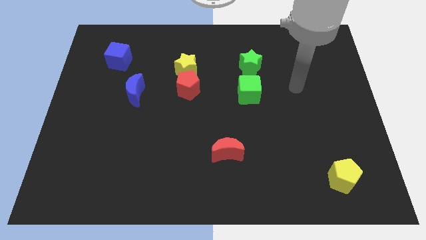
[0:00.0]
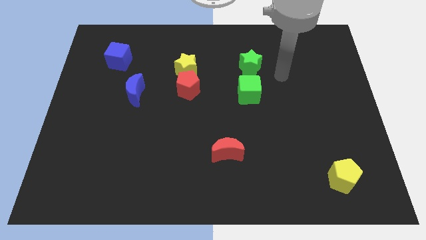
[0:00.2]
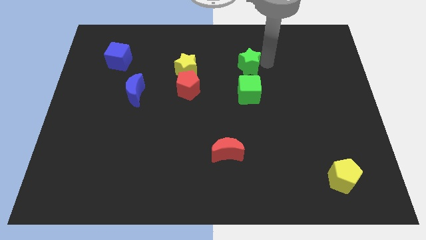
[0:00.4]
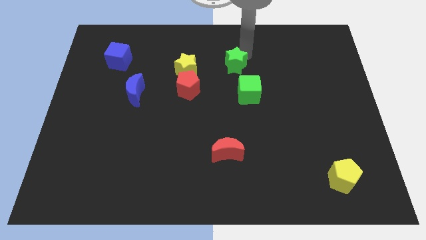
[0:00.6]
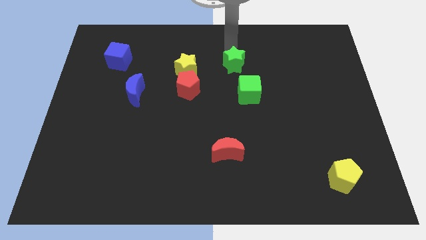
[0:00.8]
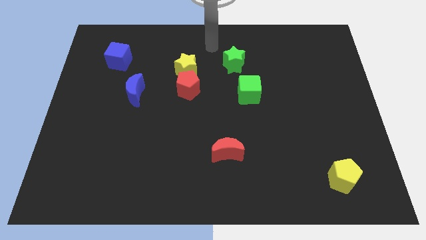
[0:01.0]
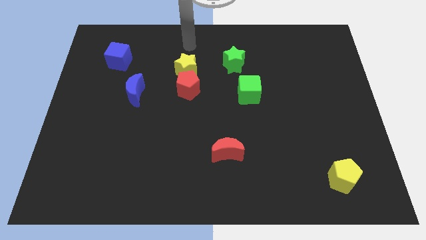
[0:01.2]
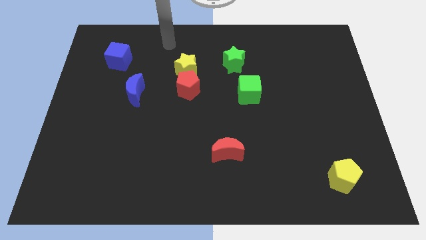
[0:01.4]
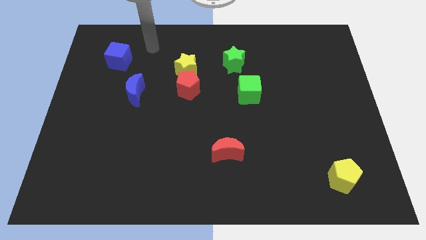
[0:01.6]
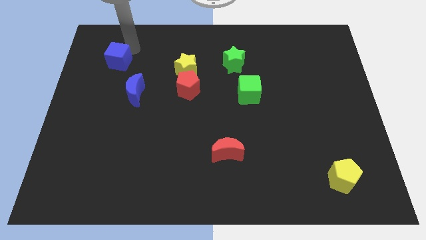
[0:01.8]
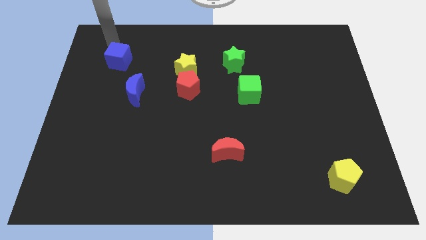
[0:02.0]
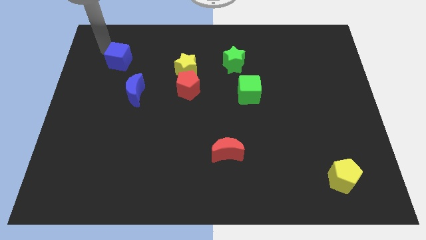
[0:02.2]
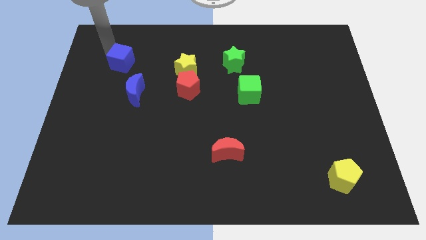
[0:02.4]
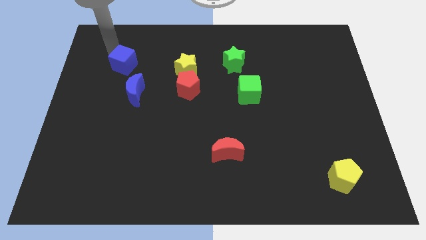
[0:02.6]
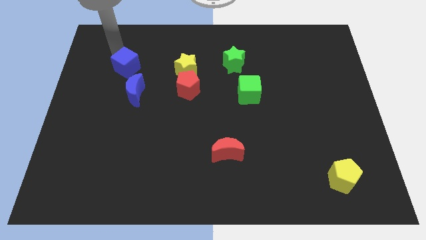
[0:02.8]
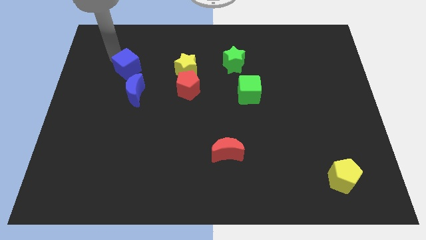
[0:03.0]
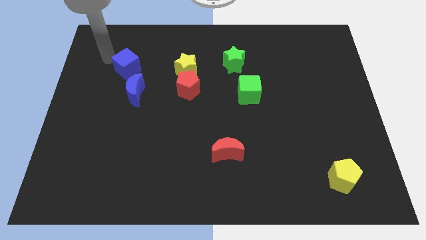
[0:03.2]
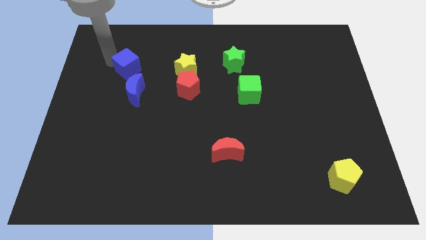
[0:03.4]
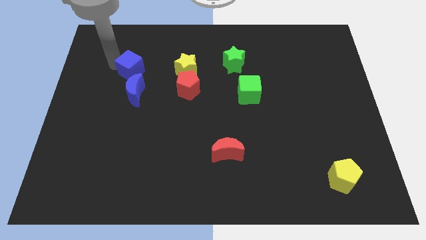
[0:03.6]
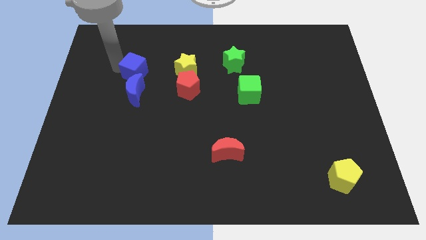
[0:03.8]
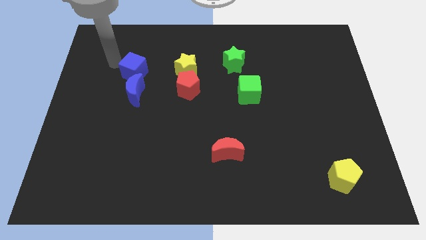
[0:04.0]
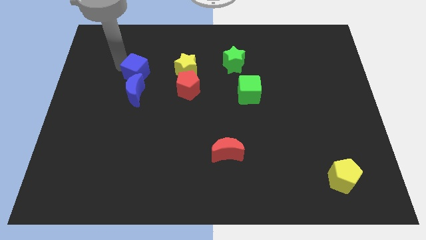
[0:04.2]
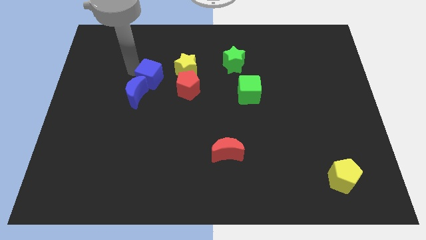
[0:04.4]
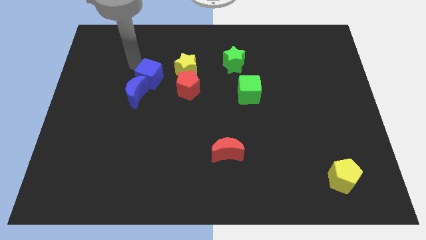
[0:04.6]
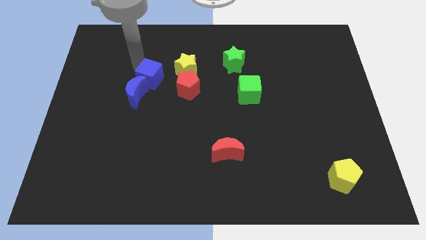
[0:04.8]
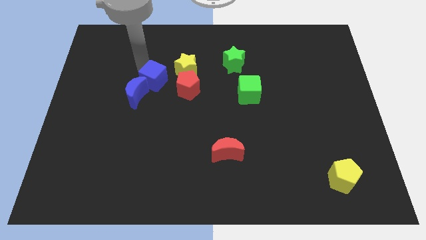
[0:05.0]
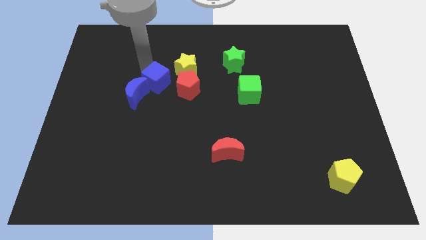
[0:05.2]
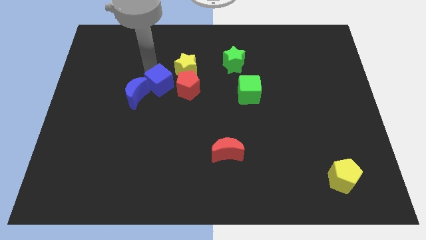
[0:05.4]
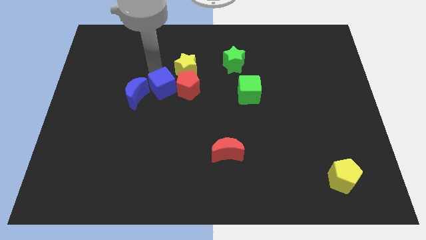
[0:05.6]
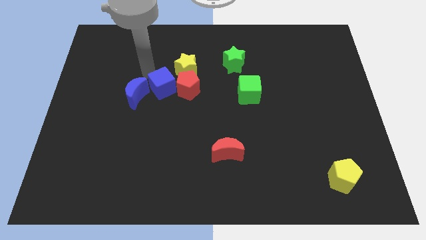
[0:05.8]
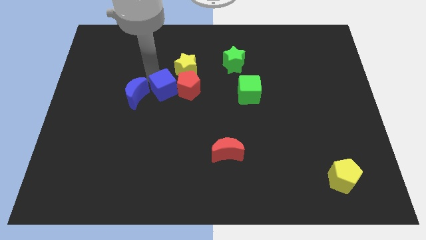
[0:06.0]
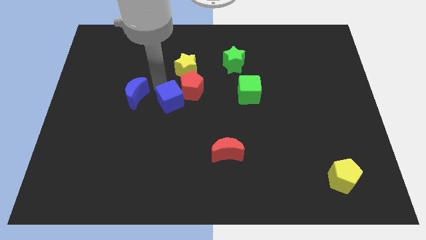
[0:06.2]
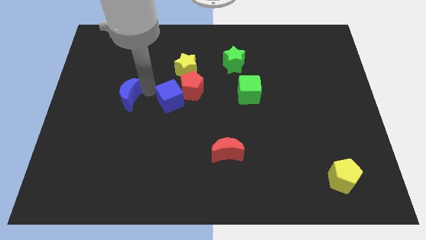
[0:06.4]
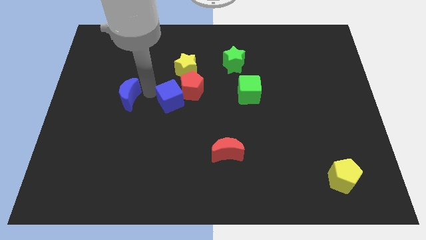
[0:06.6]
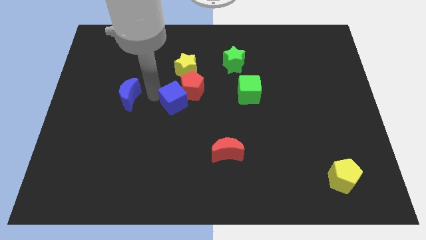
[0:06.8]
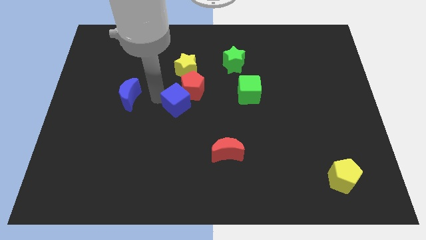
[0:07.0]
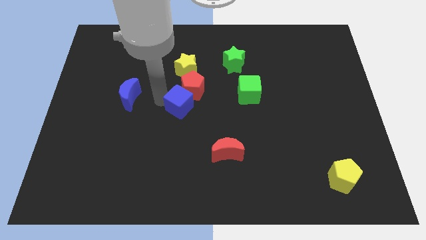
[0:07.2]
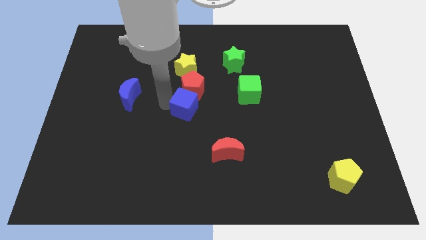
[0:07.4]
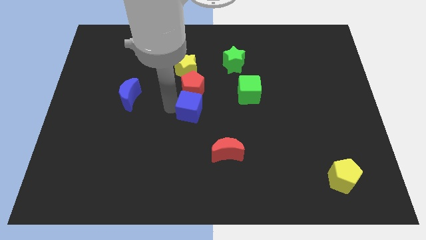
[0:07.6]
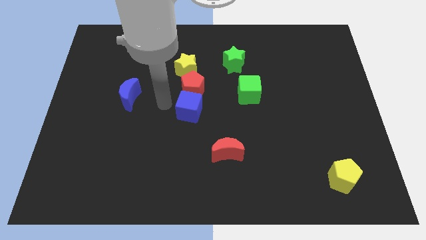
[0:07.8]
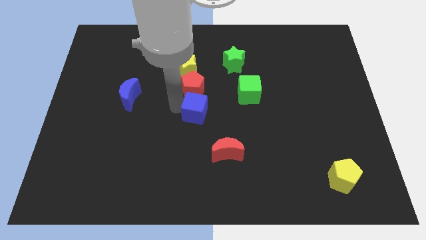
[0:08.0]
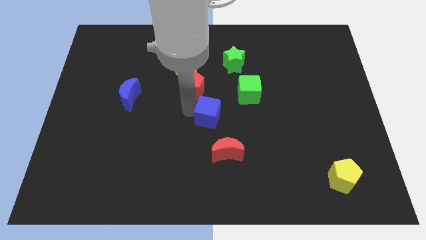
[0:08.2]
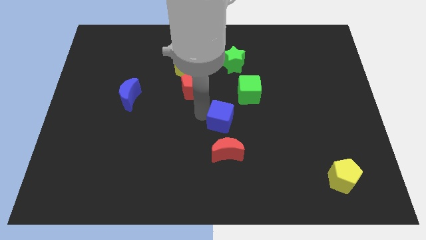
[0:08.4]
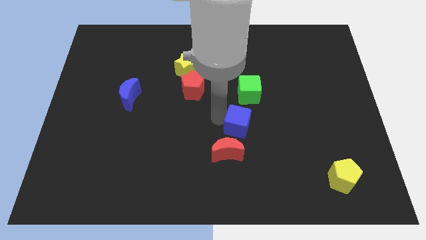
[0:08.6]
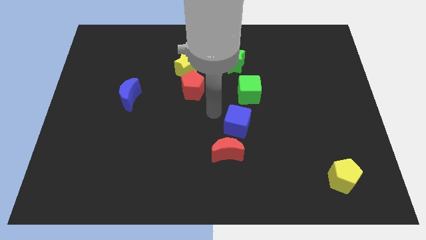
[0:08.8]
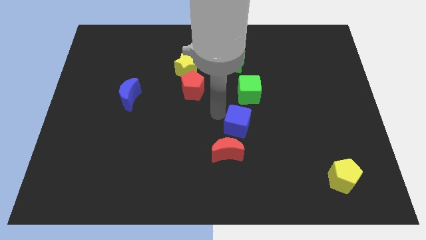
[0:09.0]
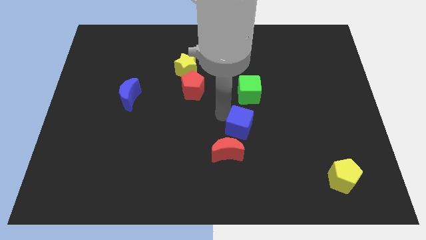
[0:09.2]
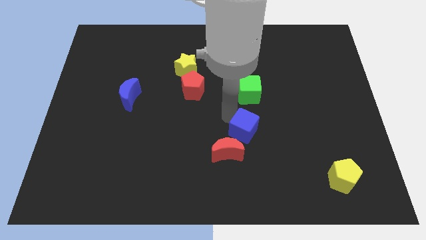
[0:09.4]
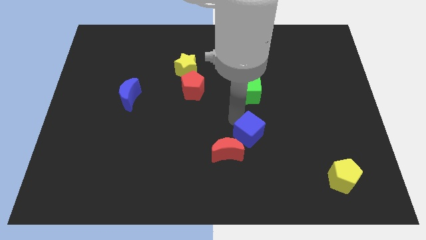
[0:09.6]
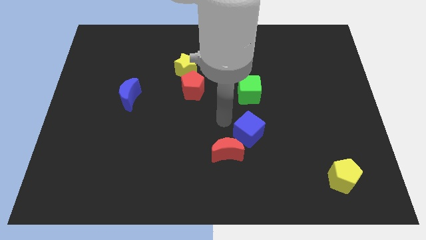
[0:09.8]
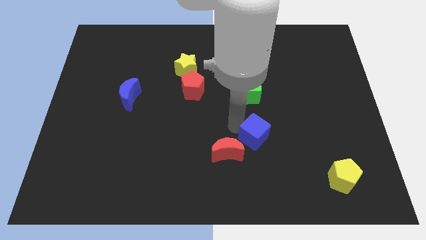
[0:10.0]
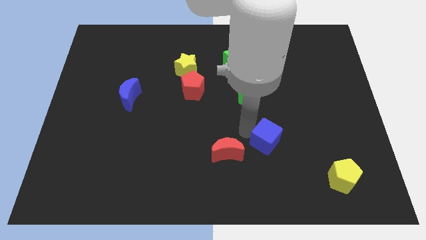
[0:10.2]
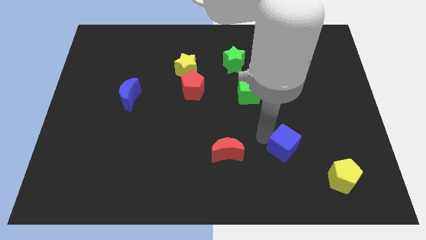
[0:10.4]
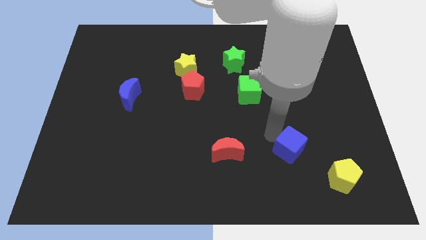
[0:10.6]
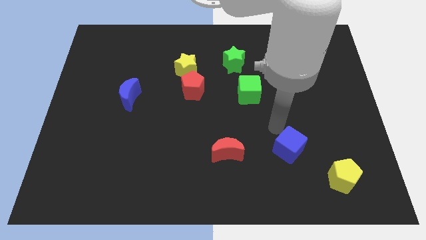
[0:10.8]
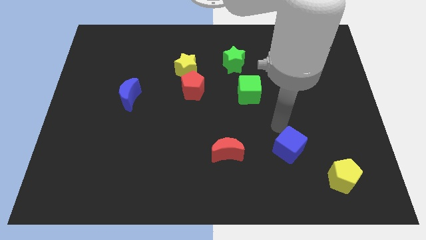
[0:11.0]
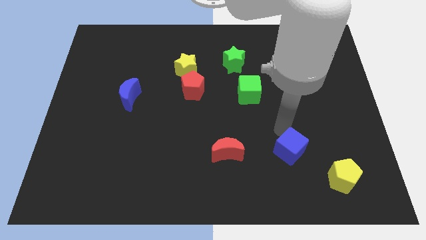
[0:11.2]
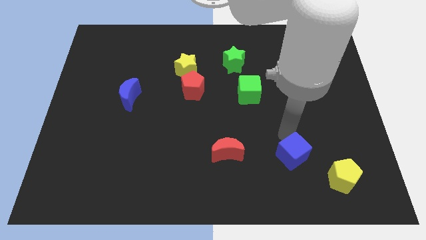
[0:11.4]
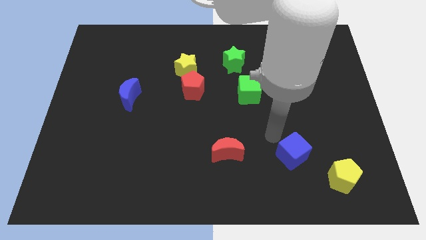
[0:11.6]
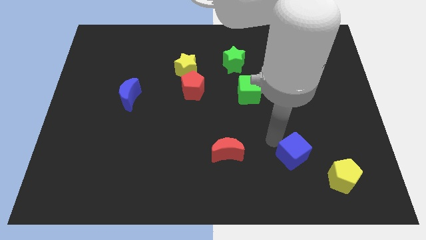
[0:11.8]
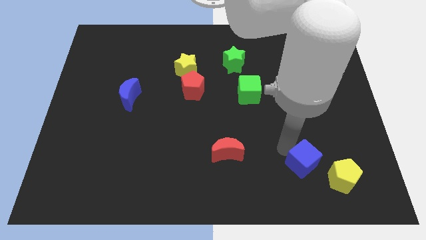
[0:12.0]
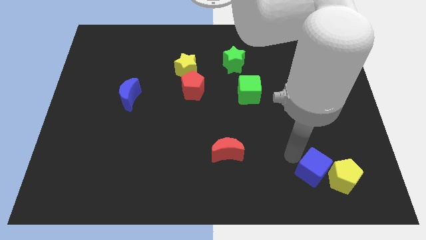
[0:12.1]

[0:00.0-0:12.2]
slide the blue cube next to the yellow pentagon

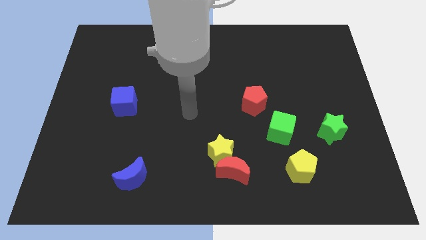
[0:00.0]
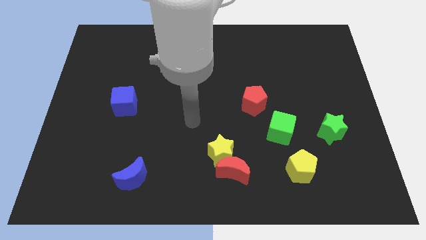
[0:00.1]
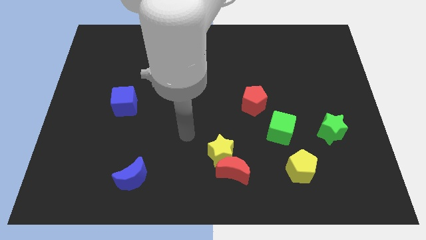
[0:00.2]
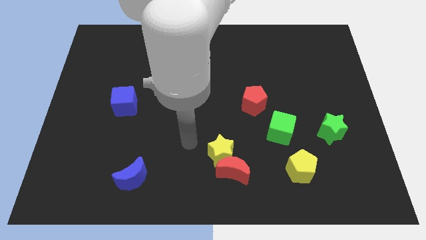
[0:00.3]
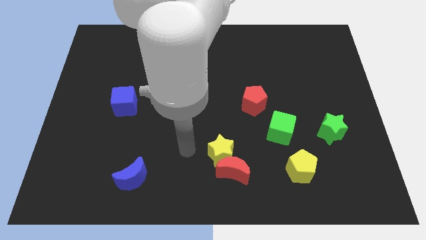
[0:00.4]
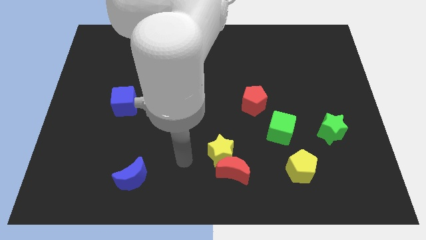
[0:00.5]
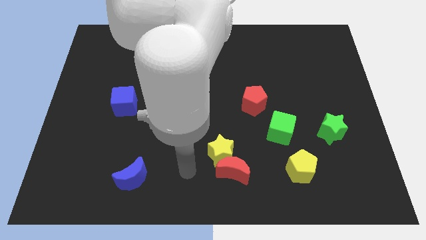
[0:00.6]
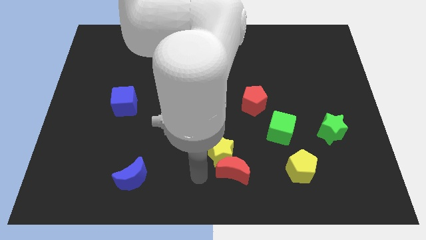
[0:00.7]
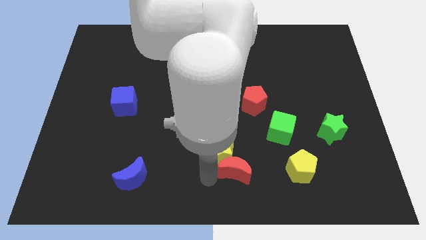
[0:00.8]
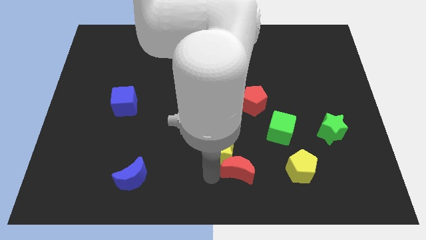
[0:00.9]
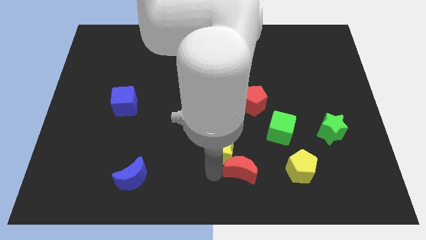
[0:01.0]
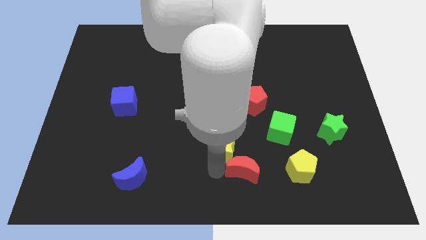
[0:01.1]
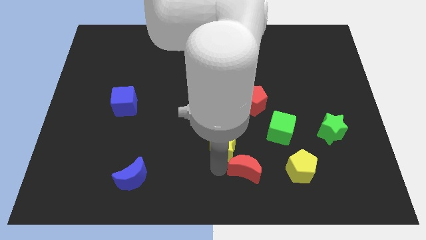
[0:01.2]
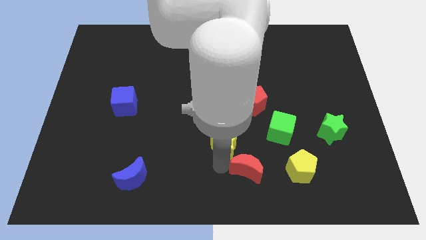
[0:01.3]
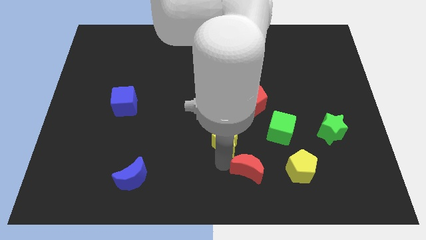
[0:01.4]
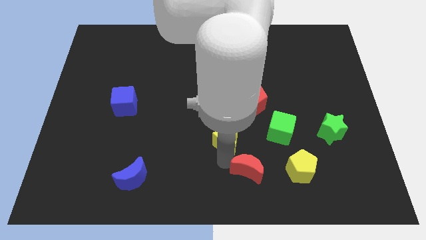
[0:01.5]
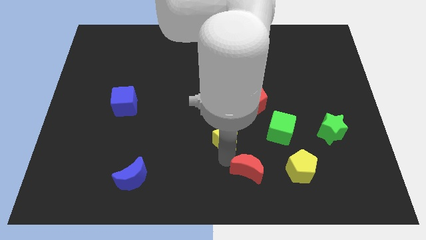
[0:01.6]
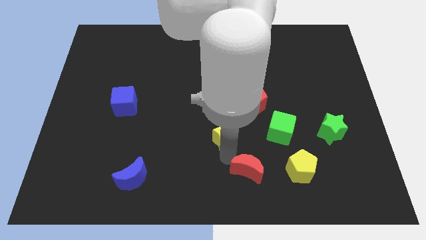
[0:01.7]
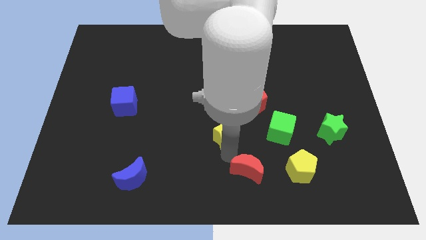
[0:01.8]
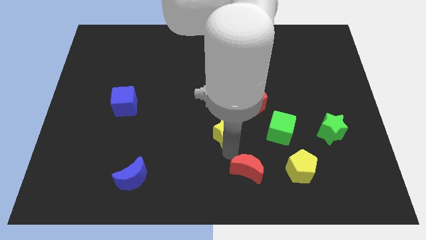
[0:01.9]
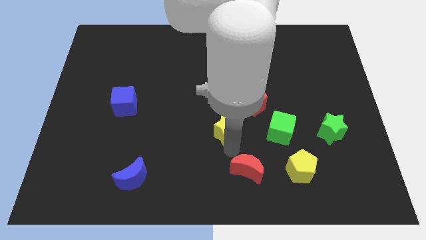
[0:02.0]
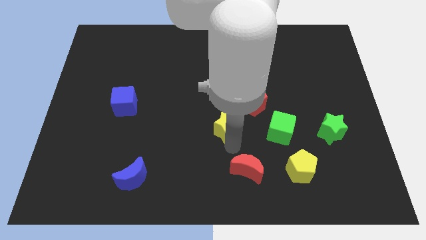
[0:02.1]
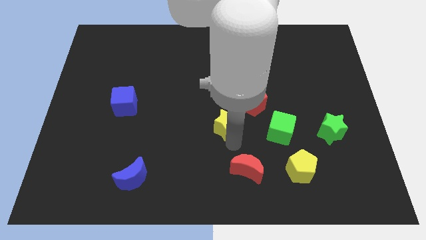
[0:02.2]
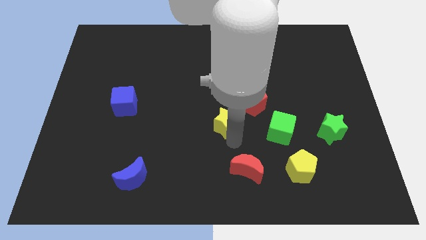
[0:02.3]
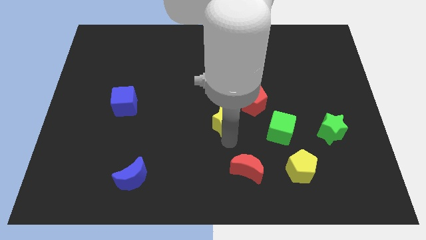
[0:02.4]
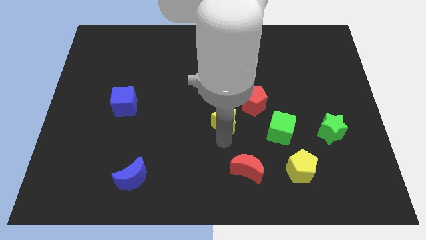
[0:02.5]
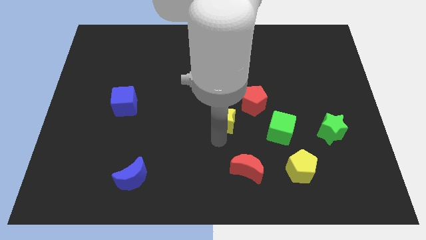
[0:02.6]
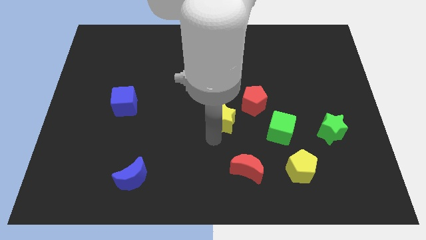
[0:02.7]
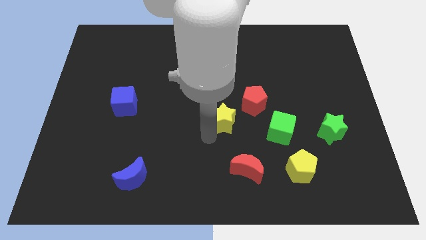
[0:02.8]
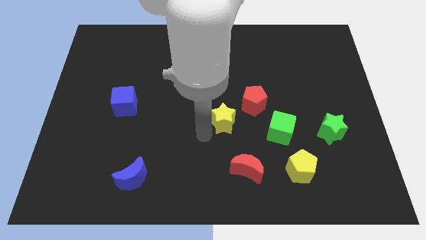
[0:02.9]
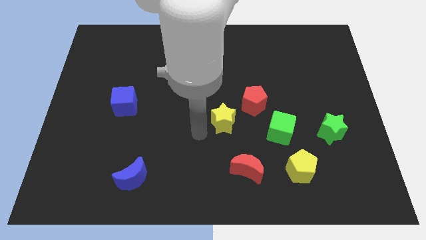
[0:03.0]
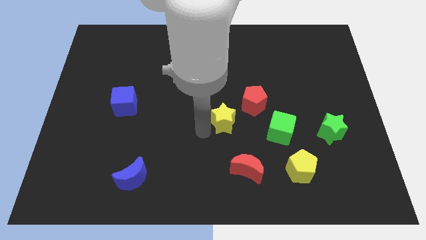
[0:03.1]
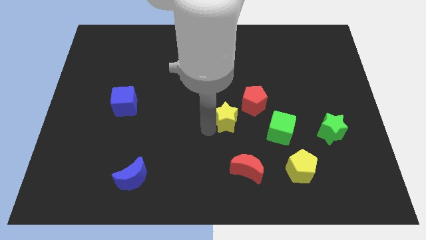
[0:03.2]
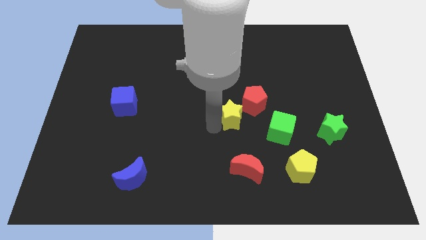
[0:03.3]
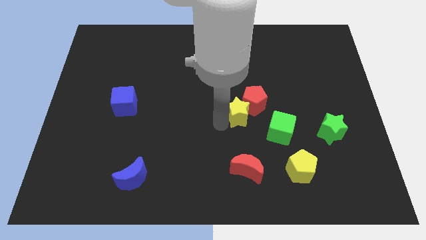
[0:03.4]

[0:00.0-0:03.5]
move the yellow star close to the red pentagon
